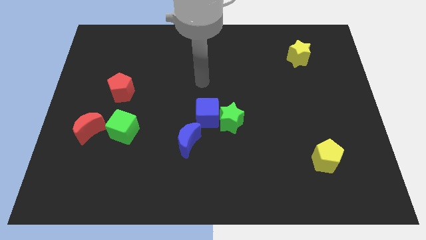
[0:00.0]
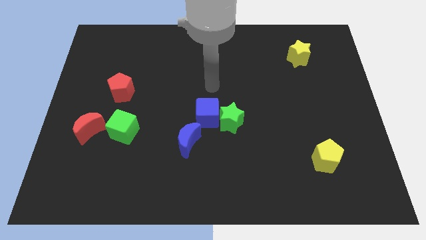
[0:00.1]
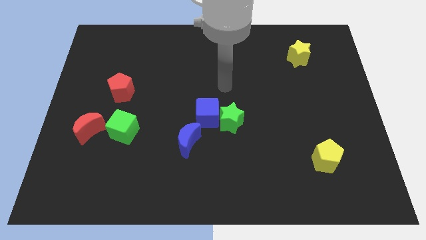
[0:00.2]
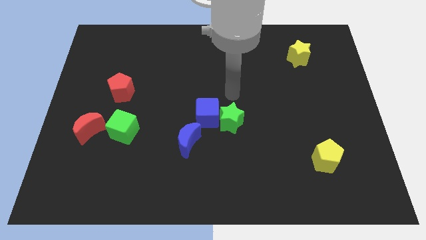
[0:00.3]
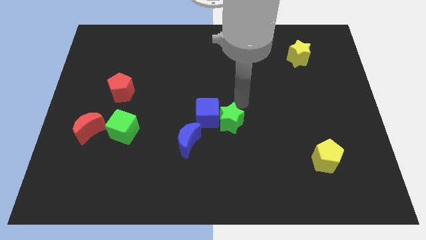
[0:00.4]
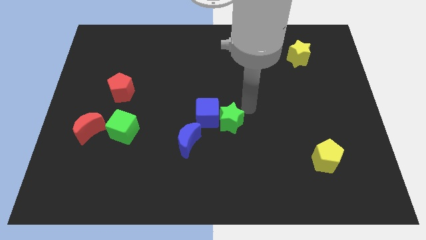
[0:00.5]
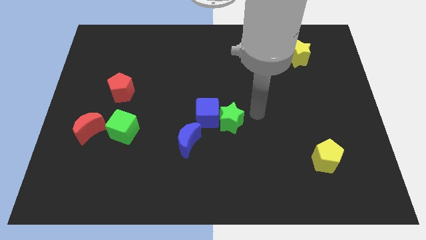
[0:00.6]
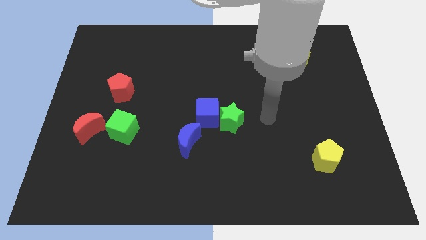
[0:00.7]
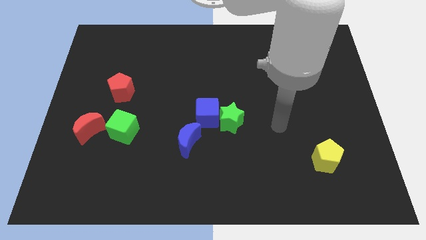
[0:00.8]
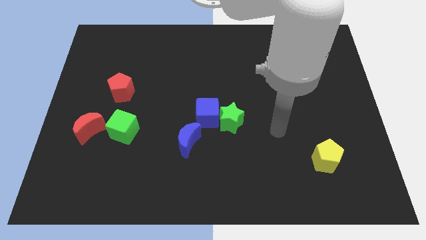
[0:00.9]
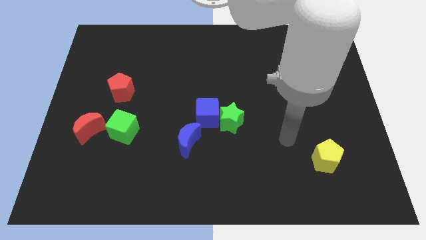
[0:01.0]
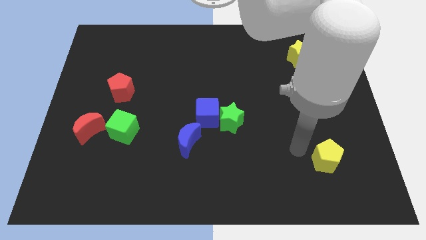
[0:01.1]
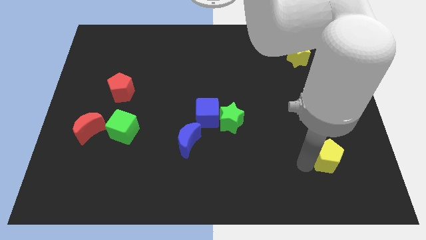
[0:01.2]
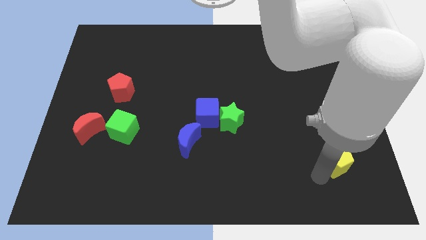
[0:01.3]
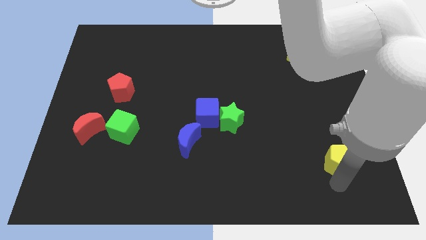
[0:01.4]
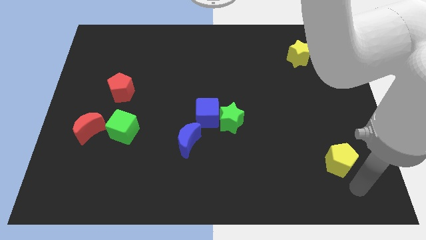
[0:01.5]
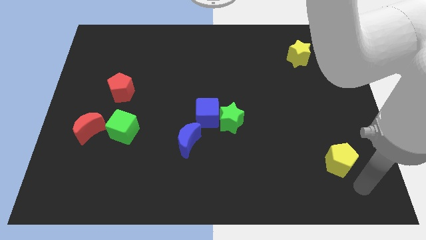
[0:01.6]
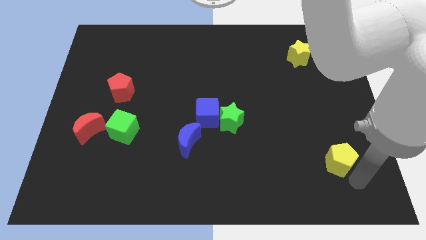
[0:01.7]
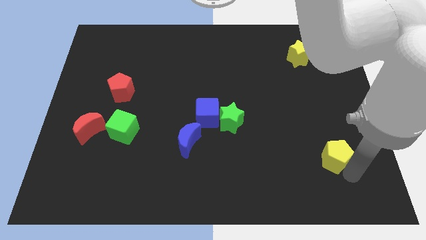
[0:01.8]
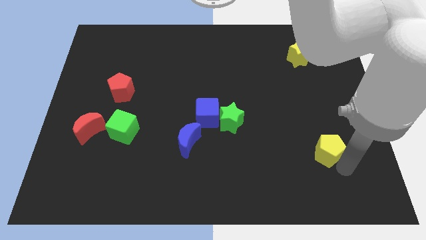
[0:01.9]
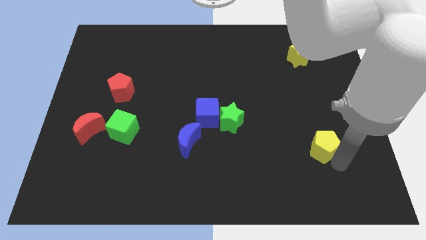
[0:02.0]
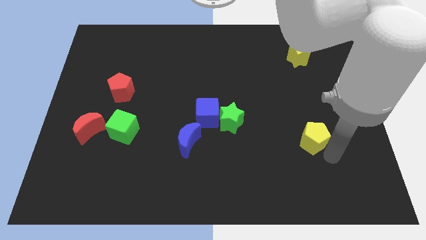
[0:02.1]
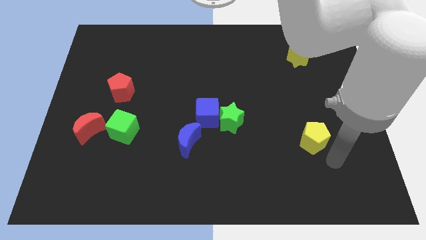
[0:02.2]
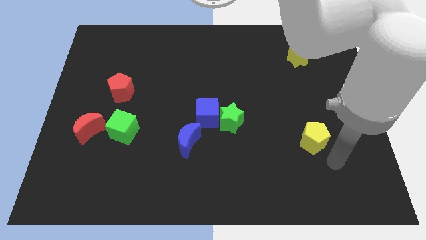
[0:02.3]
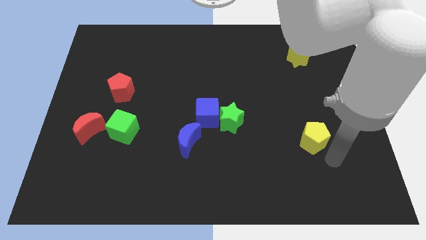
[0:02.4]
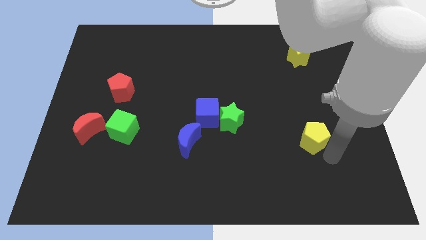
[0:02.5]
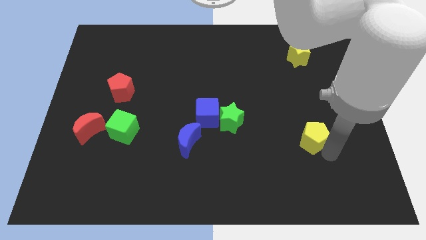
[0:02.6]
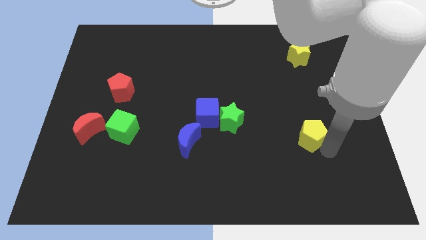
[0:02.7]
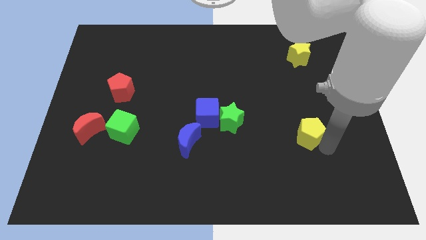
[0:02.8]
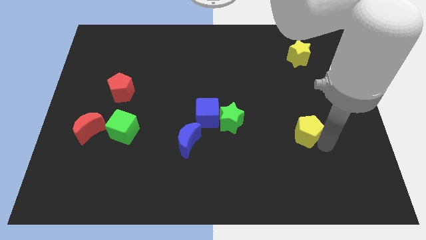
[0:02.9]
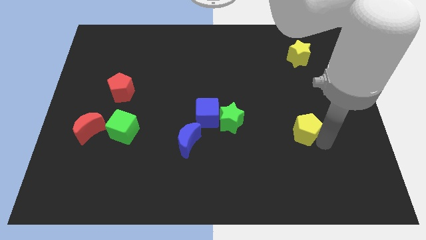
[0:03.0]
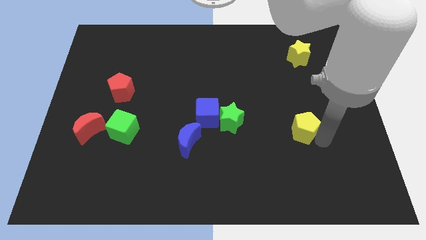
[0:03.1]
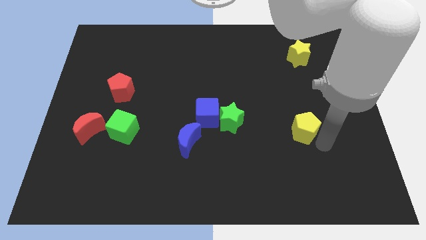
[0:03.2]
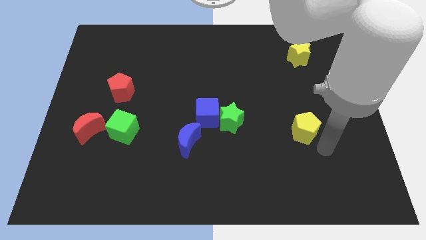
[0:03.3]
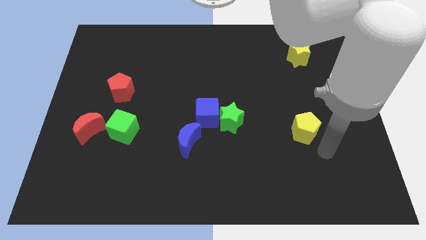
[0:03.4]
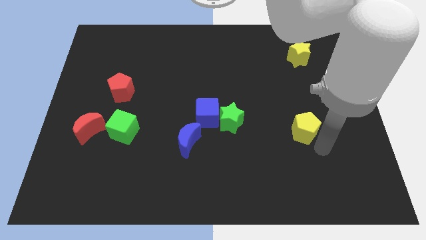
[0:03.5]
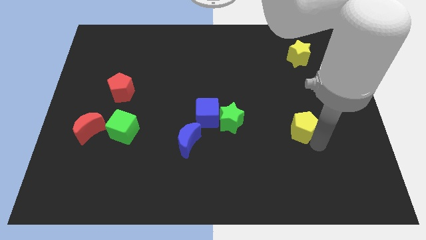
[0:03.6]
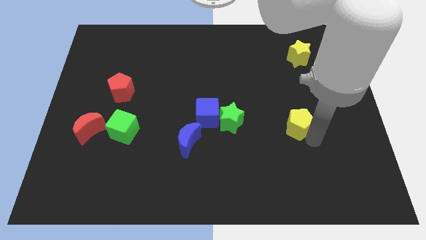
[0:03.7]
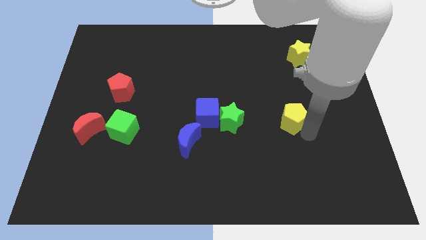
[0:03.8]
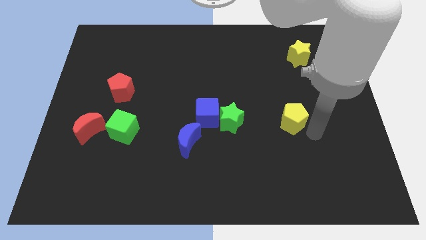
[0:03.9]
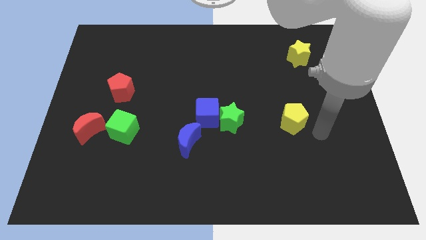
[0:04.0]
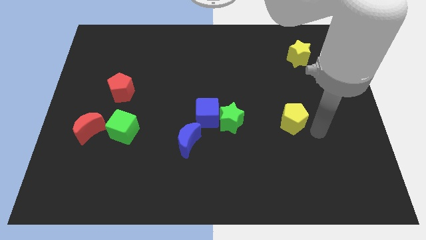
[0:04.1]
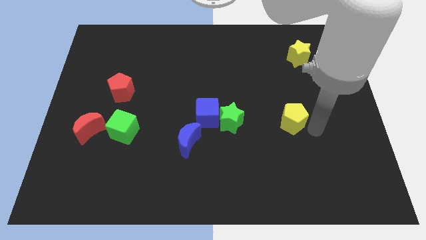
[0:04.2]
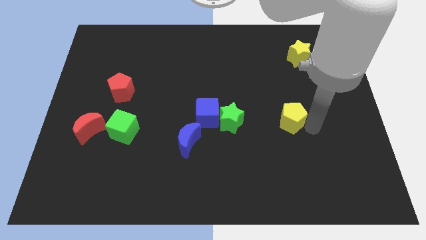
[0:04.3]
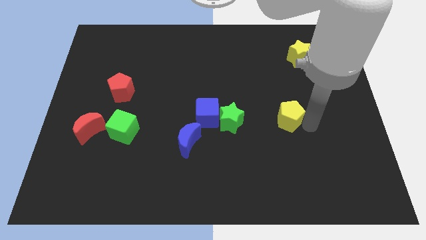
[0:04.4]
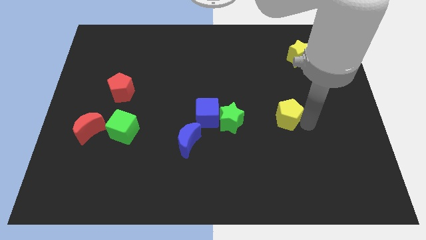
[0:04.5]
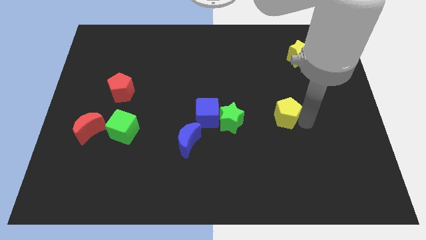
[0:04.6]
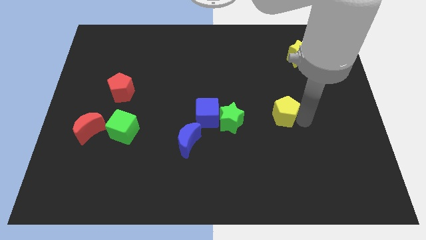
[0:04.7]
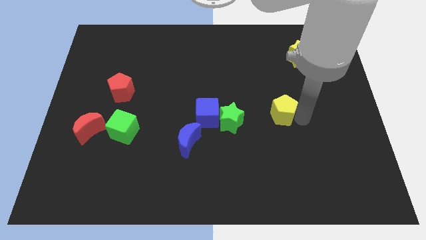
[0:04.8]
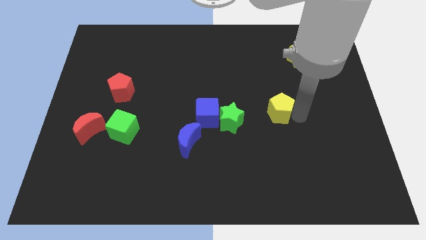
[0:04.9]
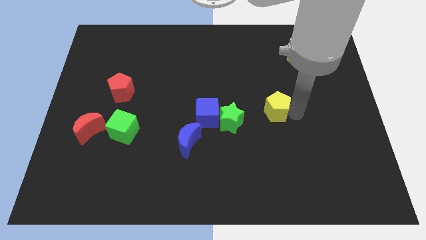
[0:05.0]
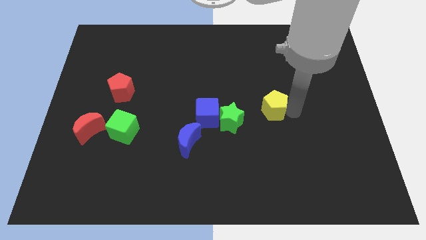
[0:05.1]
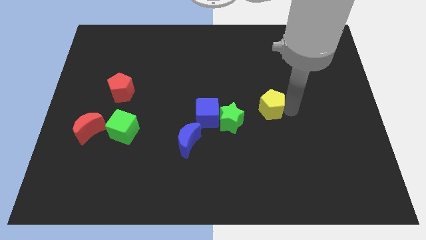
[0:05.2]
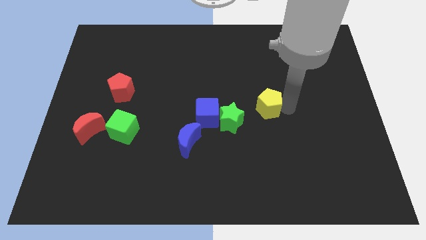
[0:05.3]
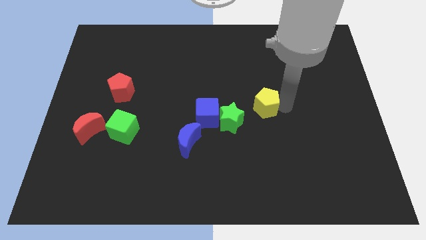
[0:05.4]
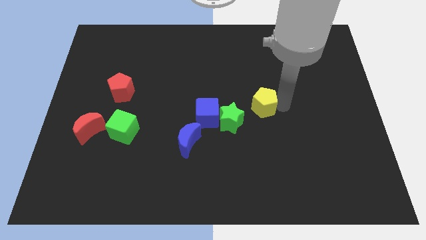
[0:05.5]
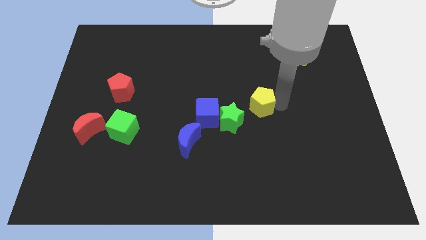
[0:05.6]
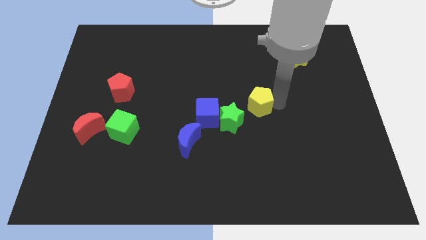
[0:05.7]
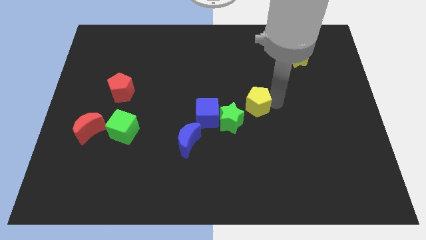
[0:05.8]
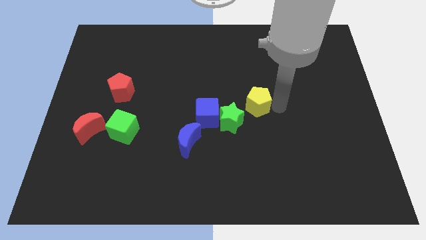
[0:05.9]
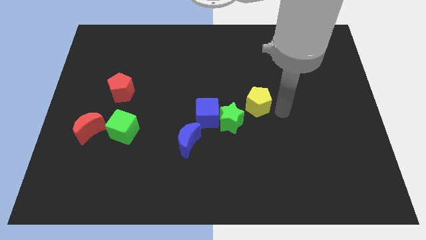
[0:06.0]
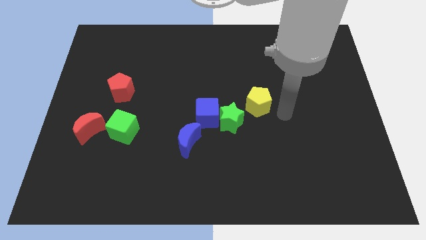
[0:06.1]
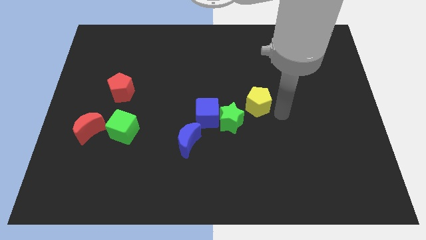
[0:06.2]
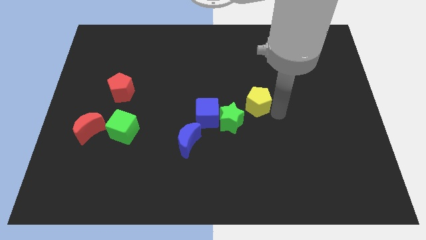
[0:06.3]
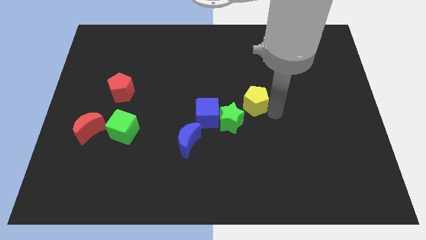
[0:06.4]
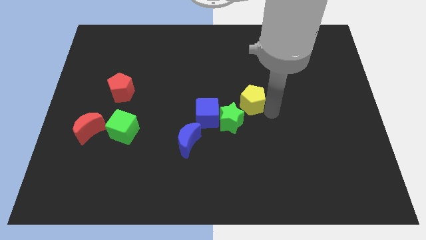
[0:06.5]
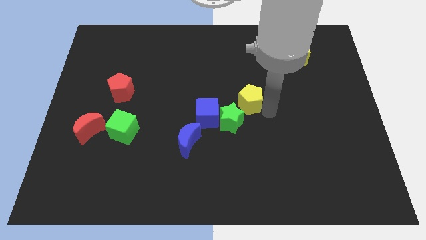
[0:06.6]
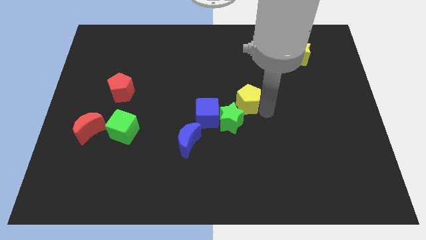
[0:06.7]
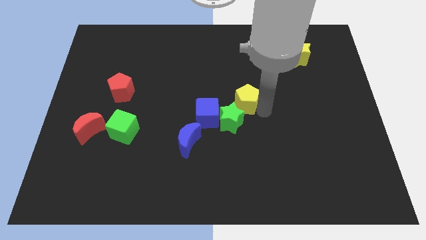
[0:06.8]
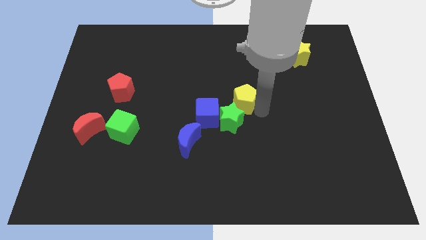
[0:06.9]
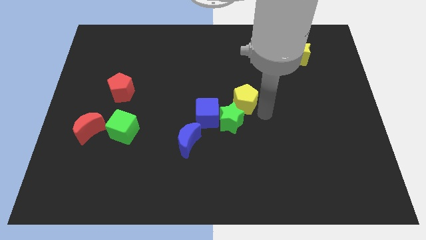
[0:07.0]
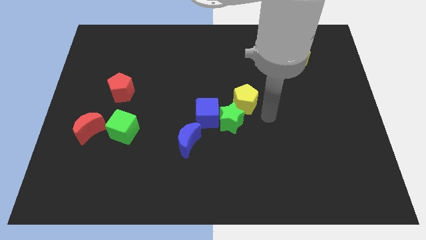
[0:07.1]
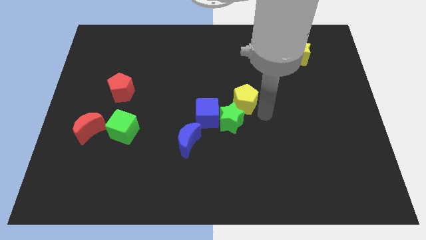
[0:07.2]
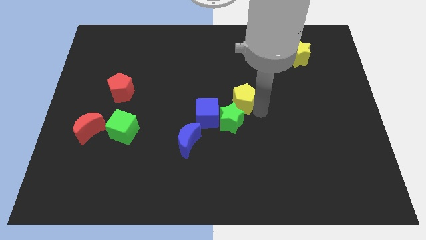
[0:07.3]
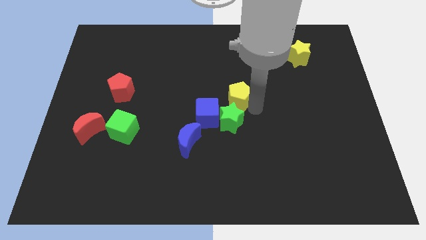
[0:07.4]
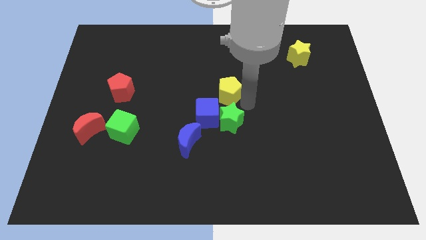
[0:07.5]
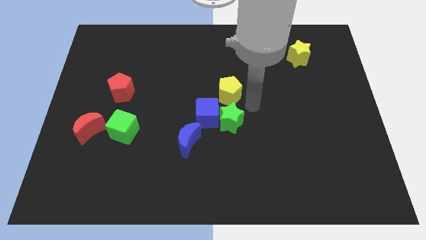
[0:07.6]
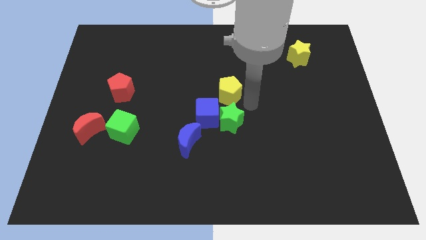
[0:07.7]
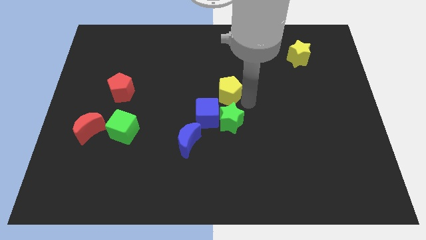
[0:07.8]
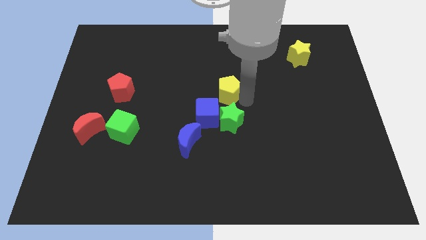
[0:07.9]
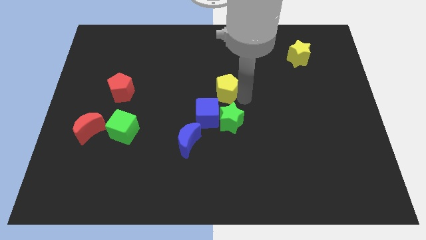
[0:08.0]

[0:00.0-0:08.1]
push the yellow pentagon to the top of the blue cube
